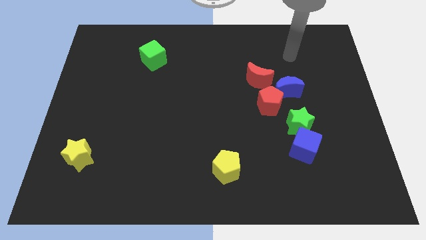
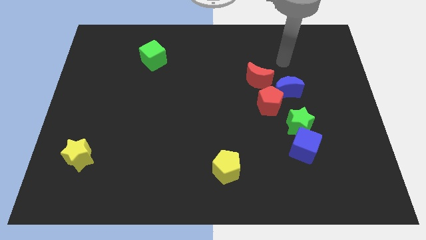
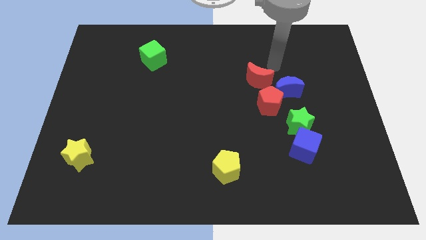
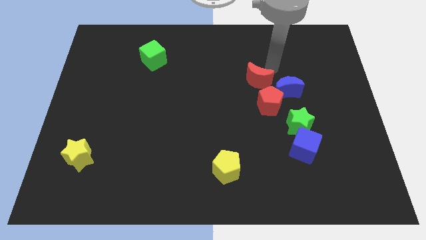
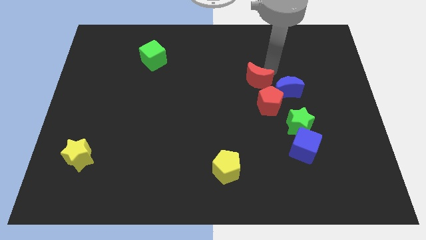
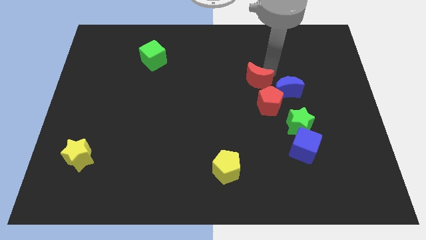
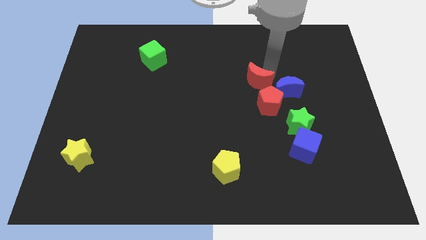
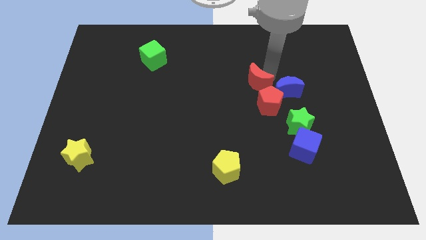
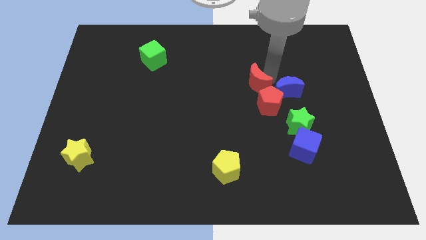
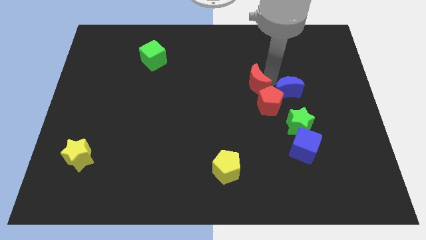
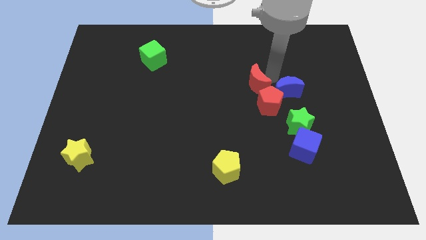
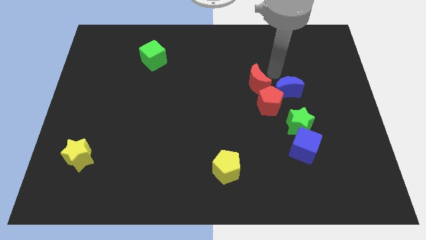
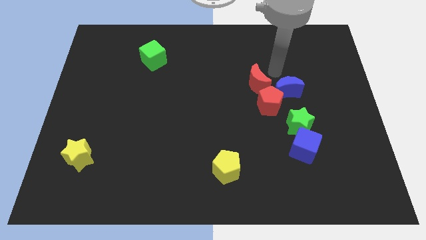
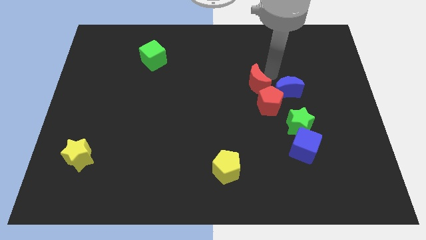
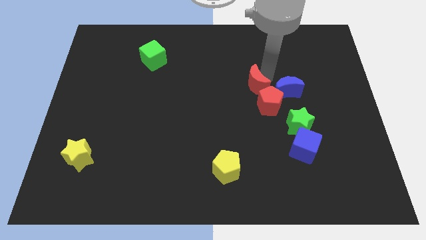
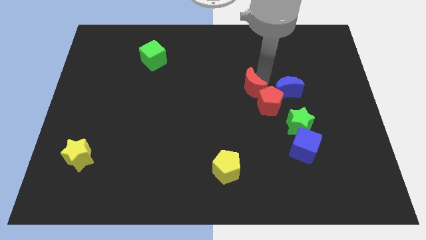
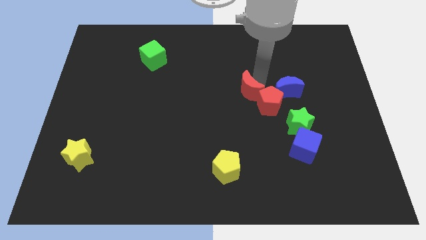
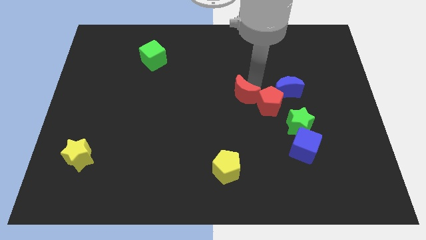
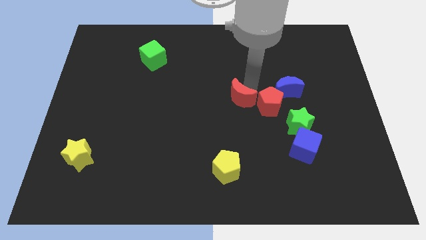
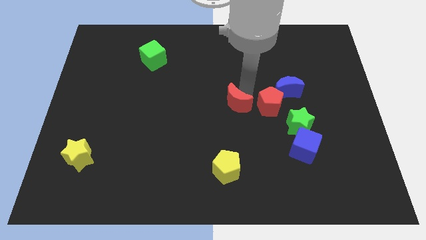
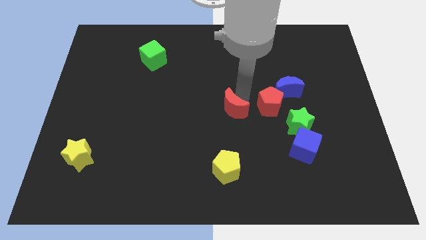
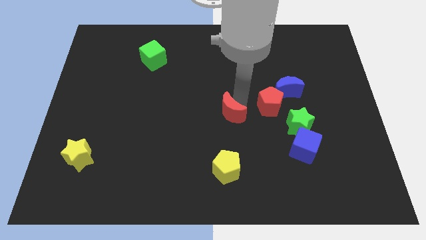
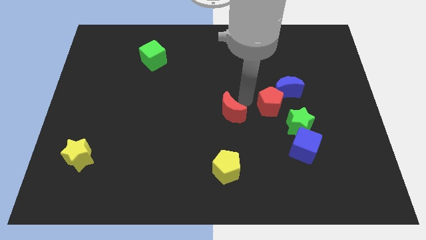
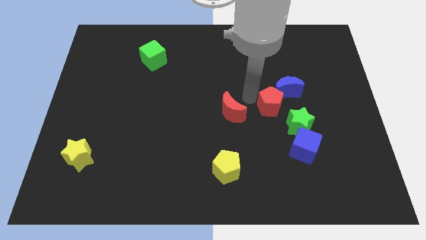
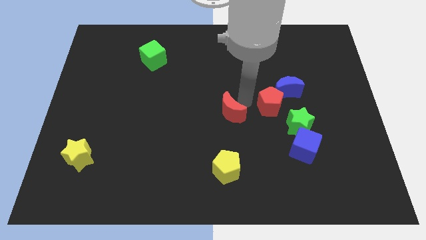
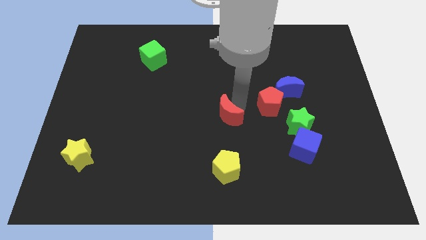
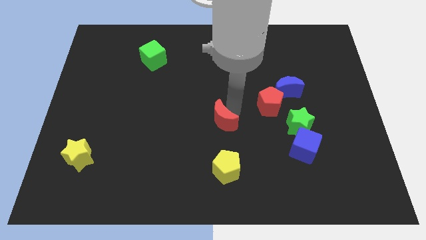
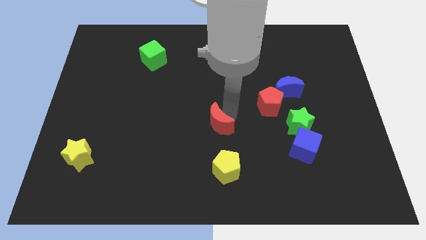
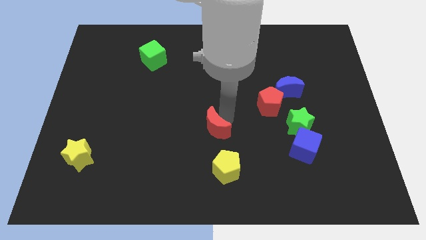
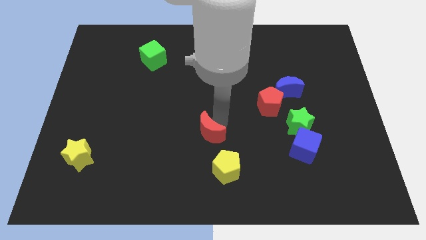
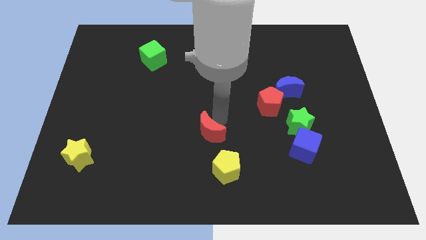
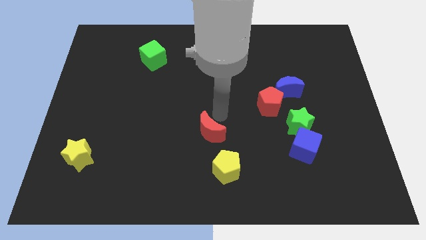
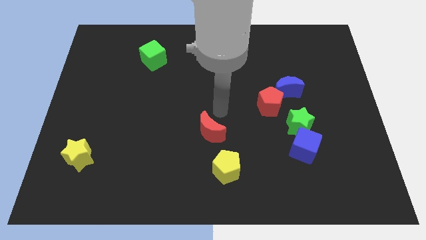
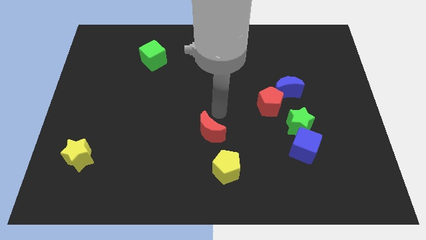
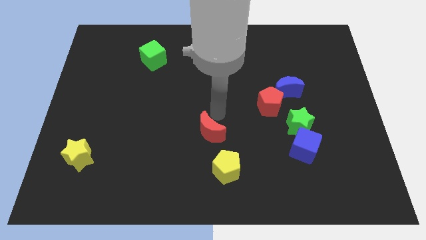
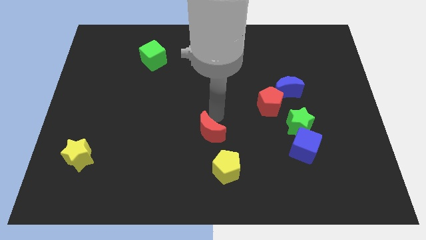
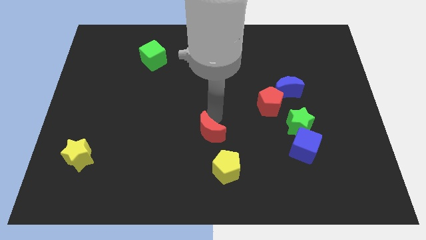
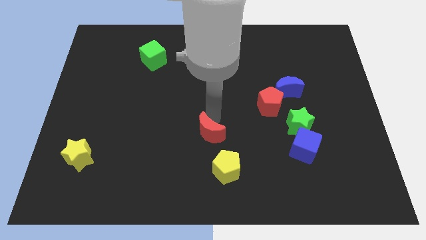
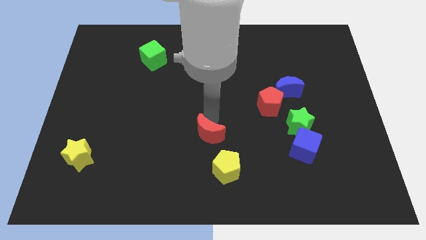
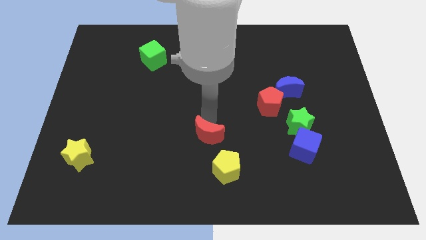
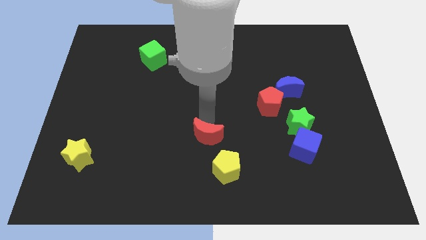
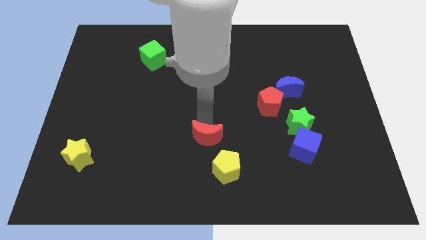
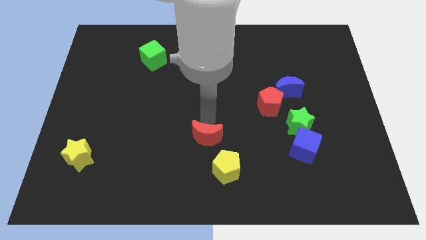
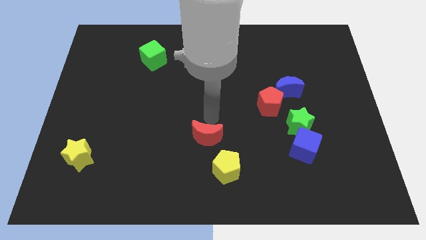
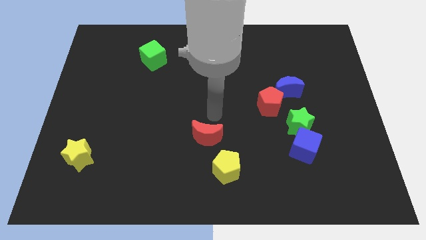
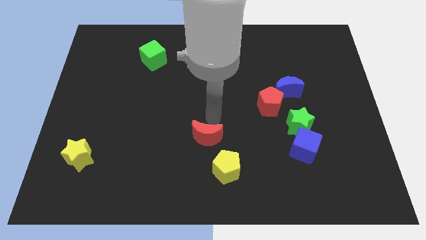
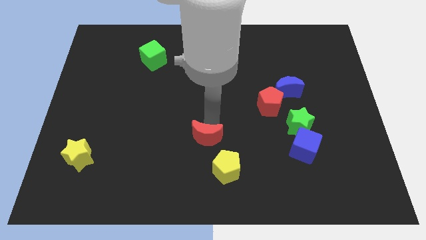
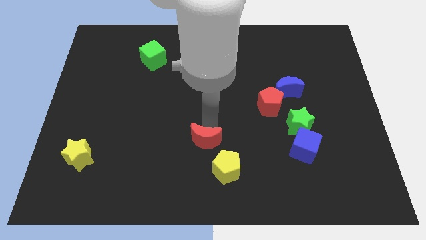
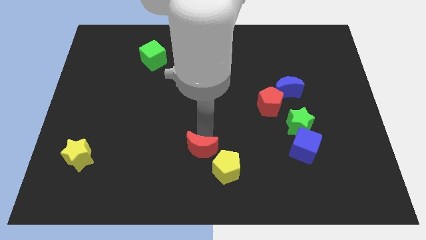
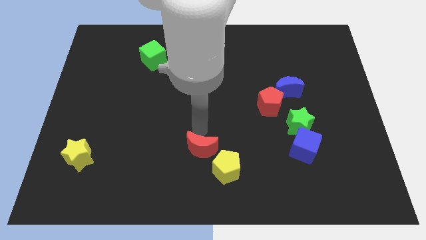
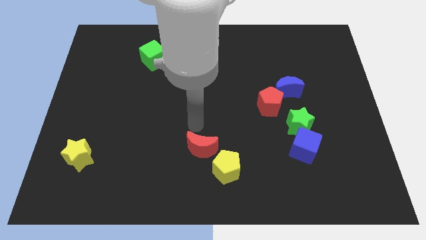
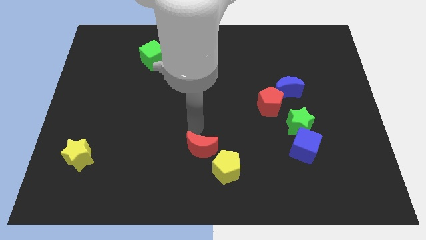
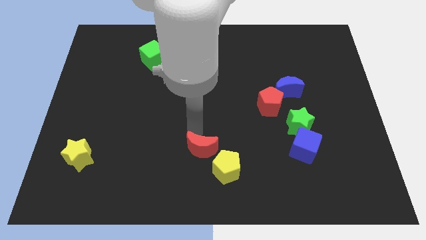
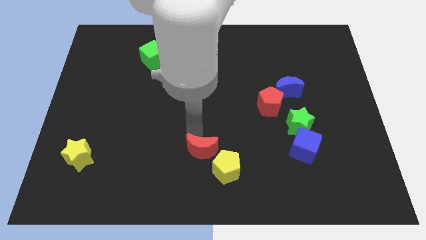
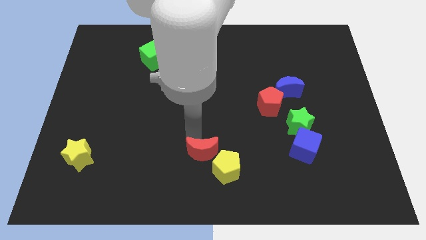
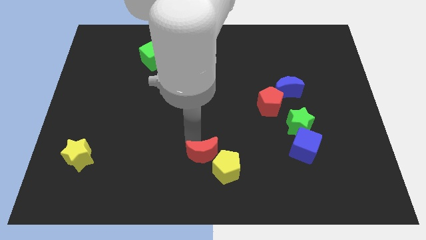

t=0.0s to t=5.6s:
push the red moon to the bottom side

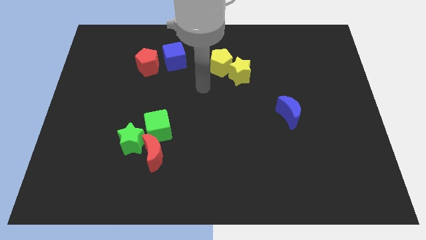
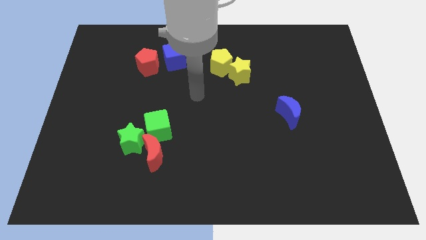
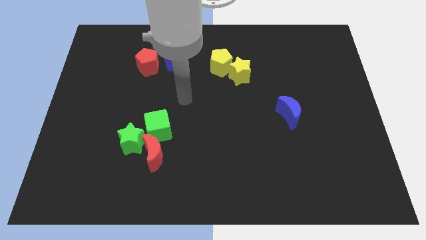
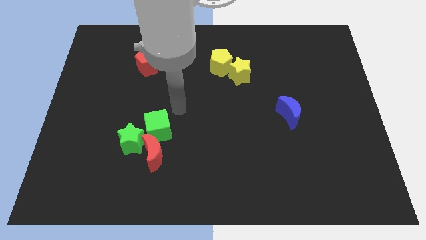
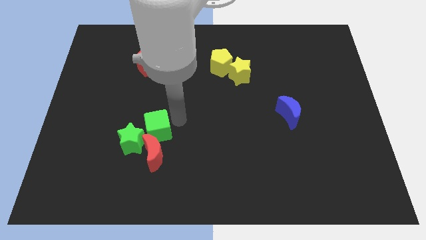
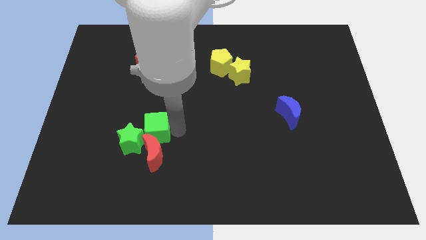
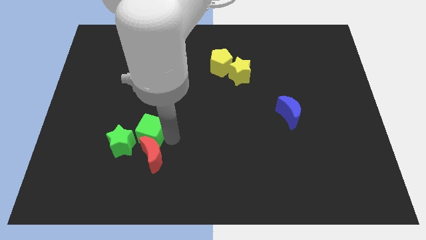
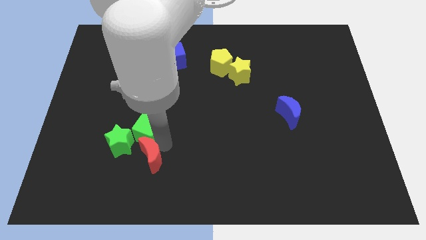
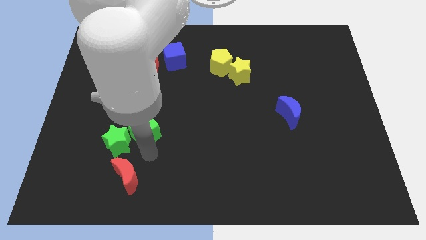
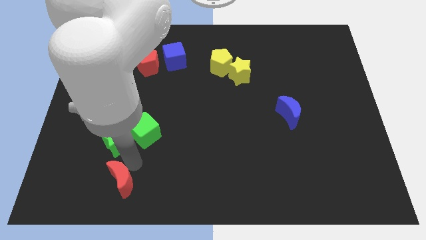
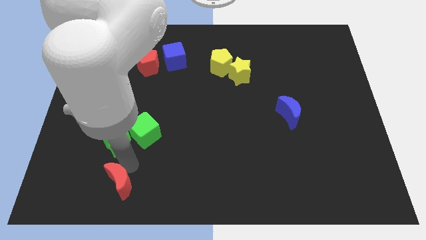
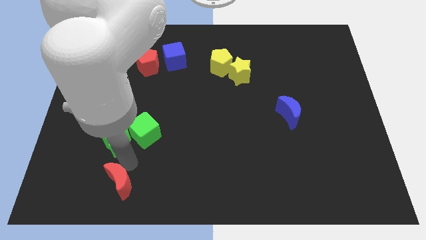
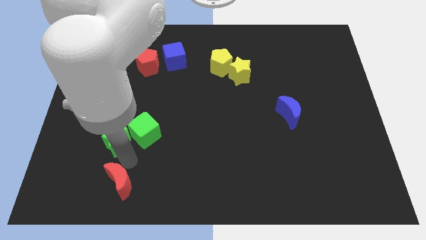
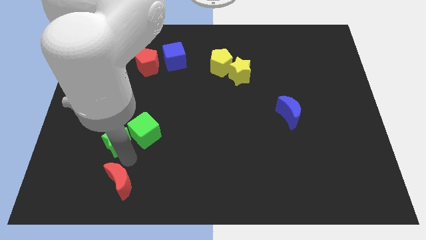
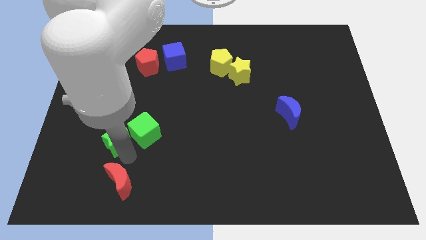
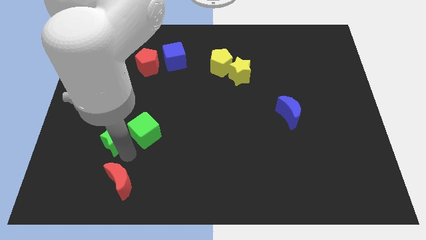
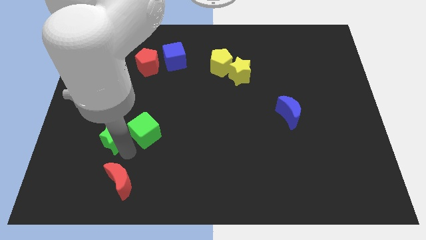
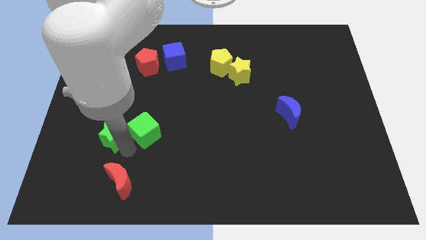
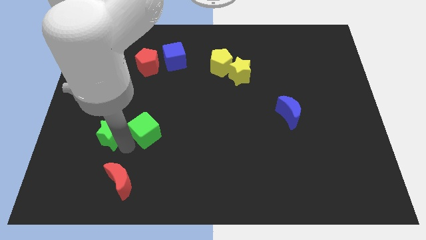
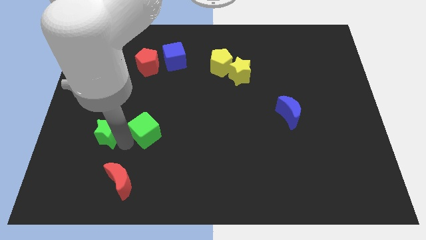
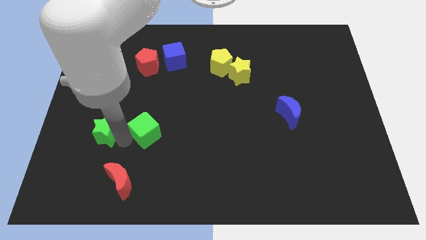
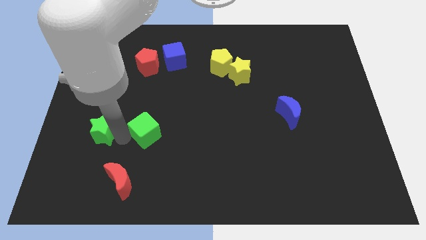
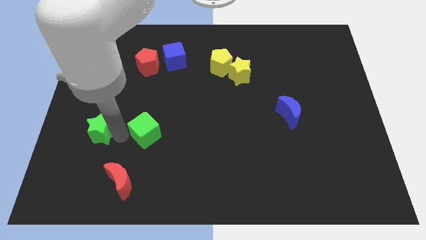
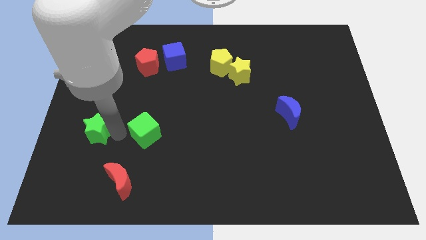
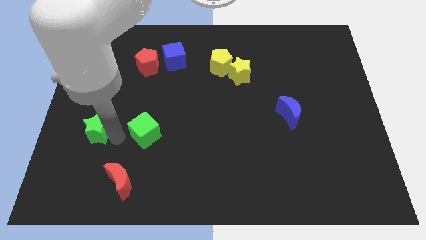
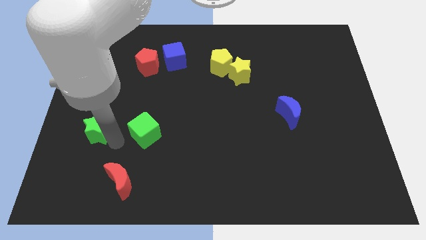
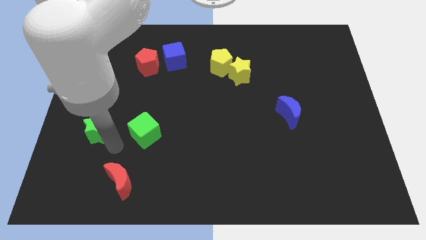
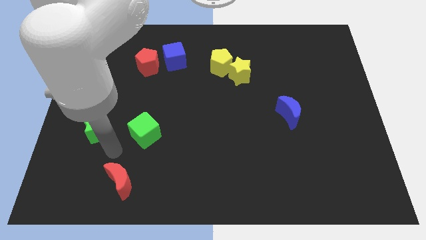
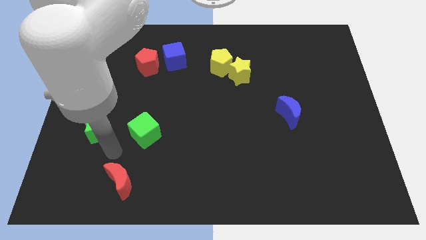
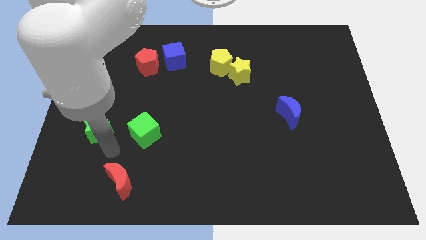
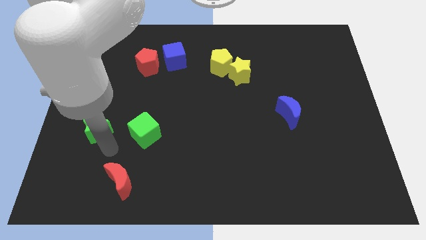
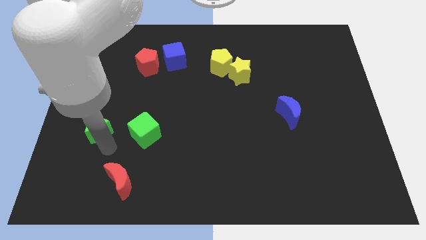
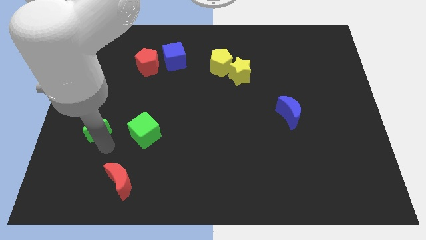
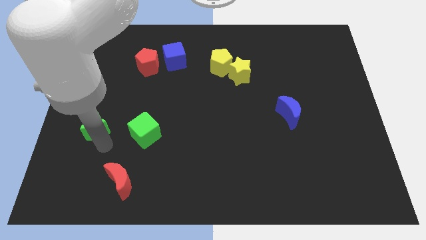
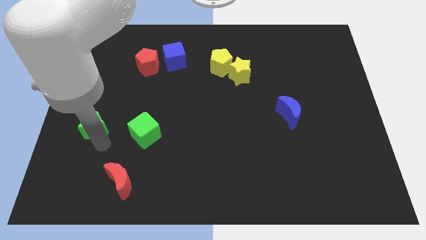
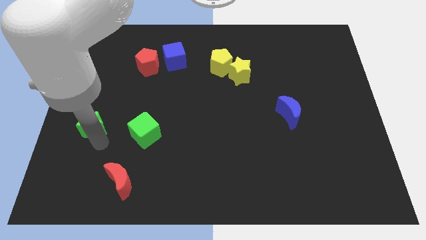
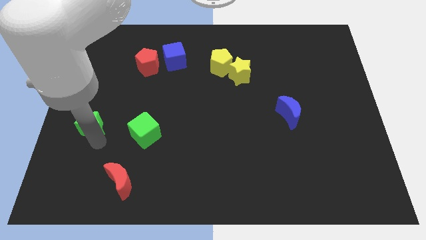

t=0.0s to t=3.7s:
push the green star to the left side
